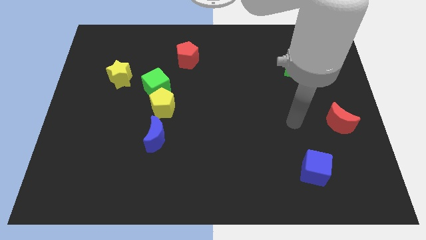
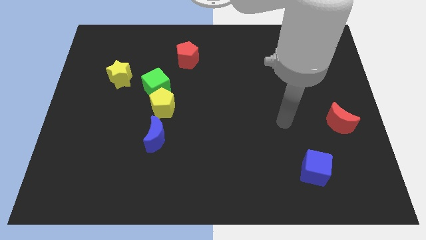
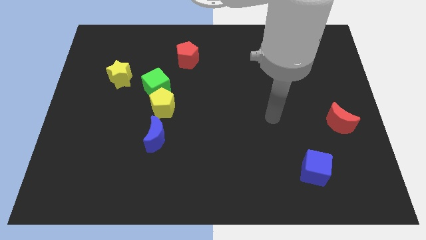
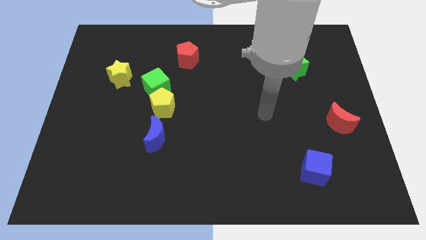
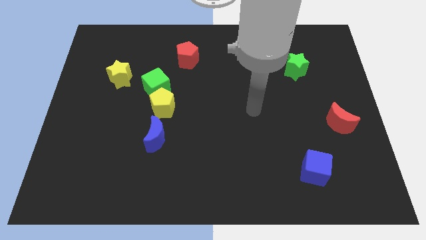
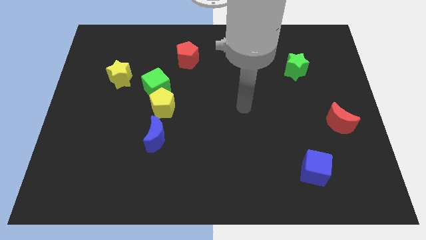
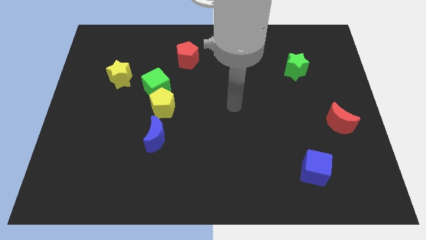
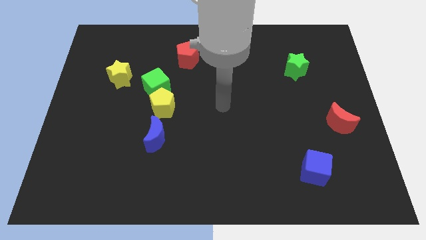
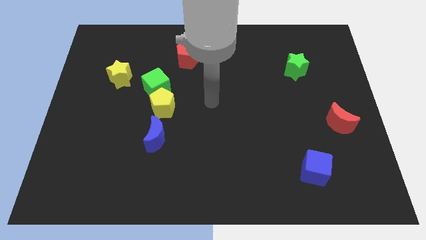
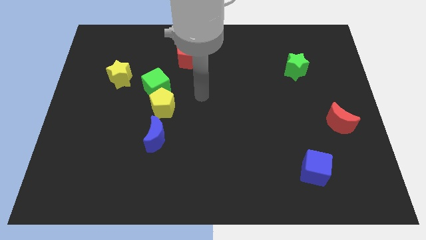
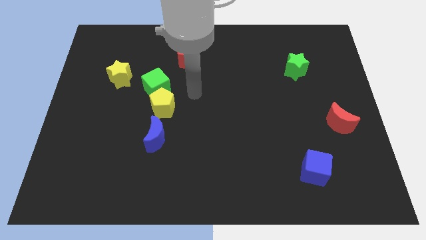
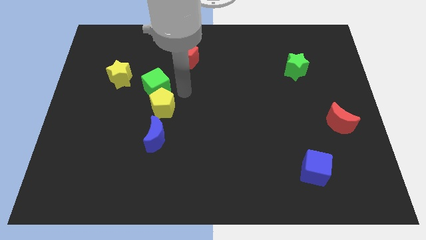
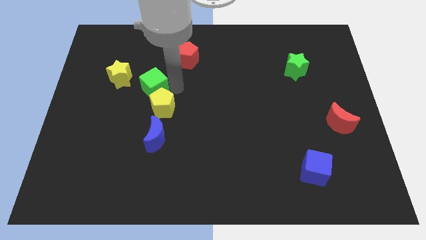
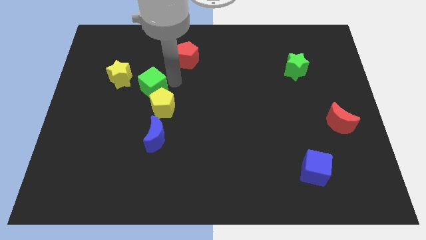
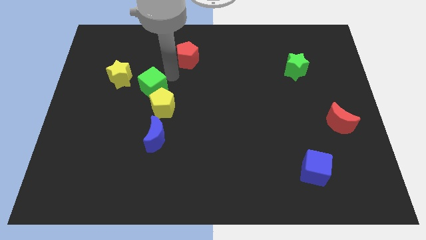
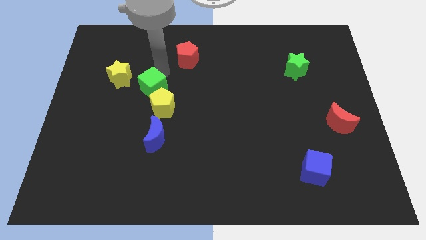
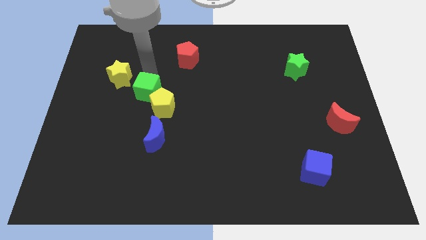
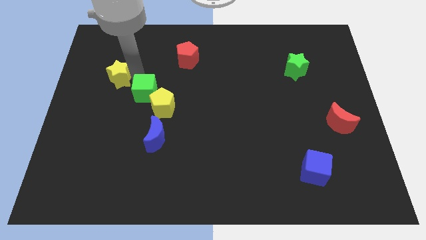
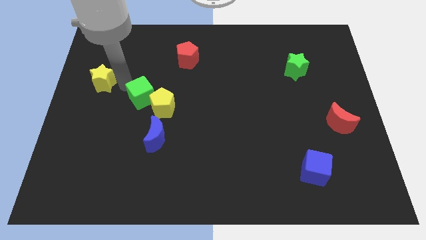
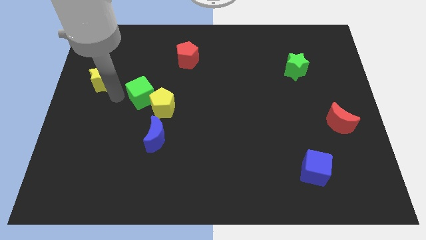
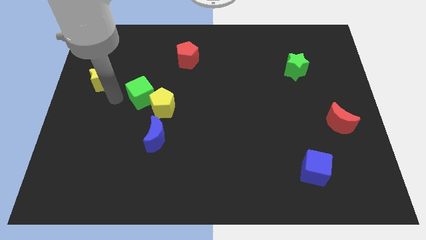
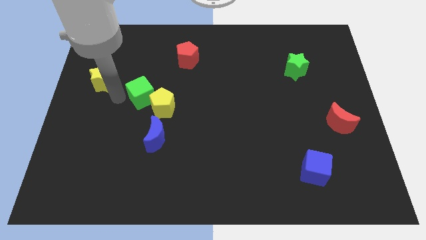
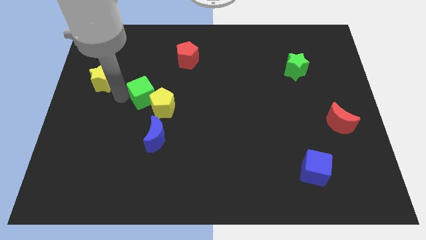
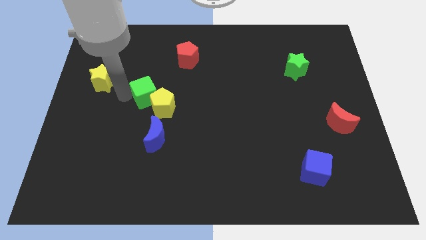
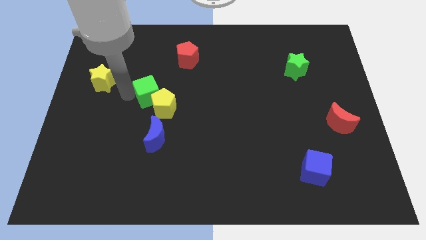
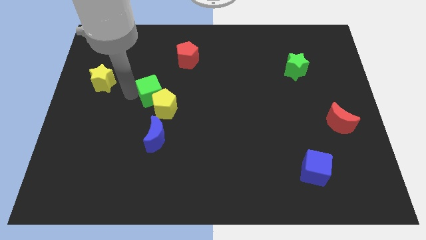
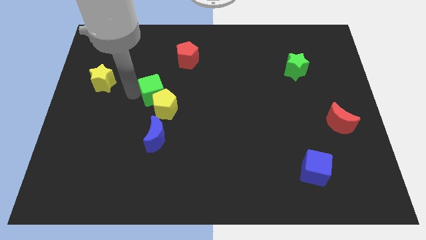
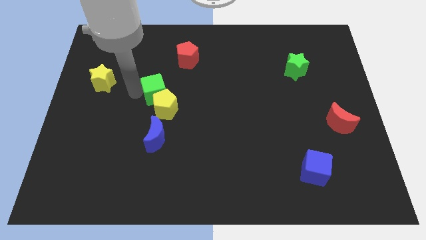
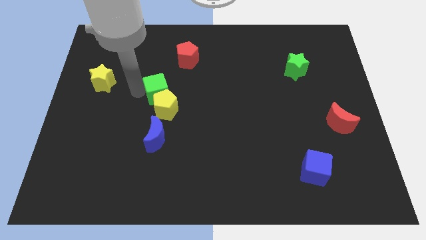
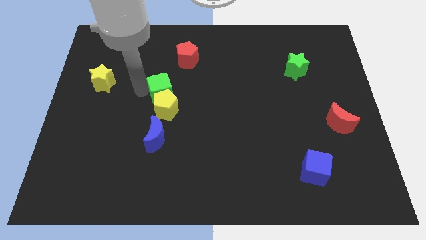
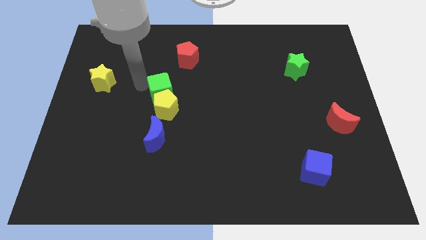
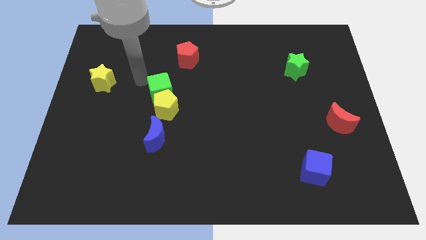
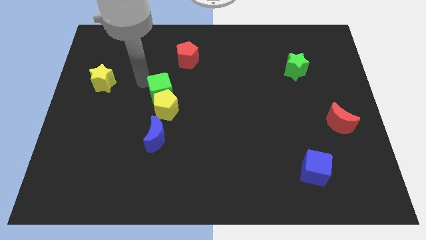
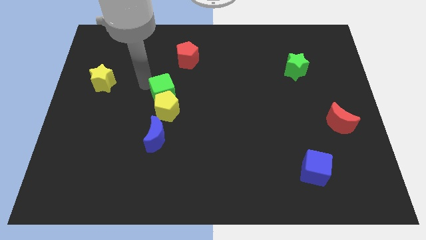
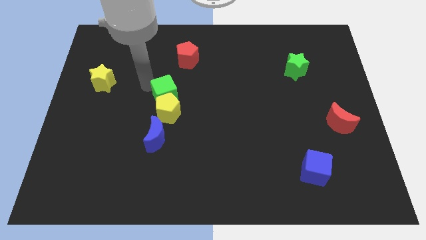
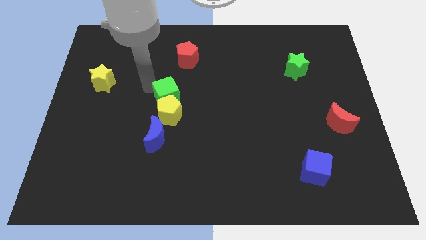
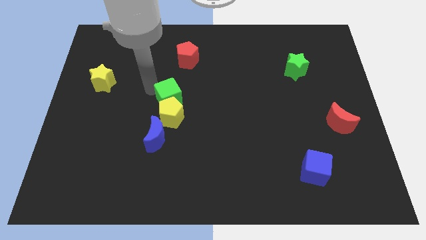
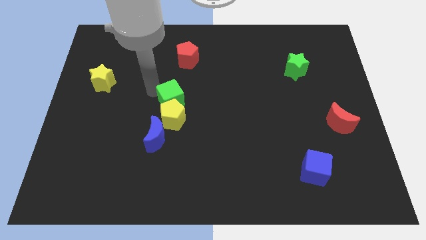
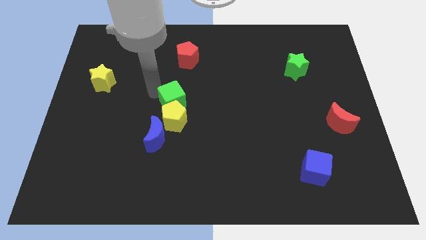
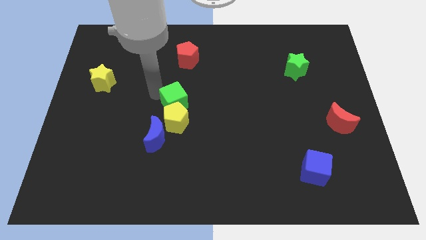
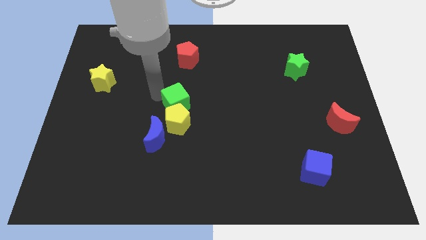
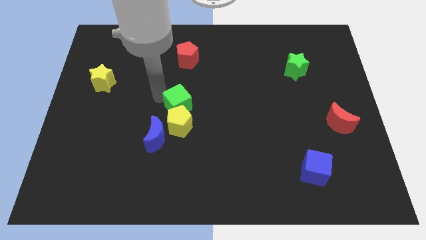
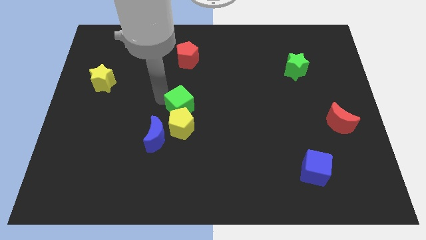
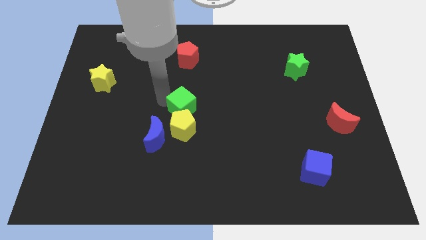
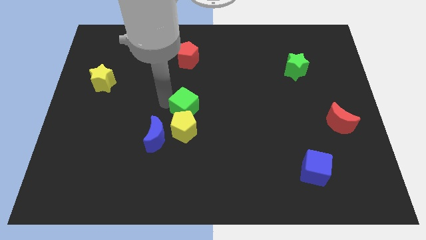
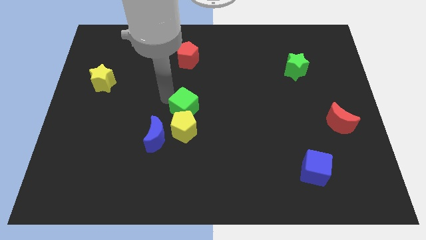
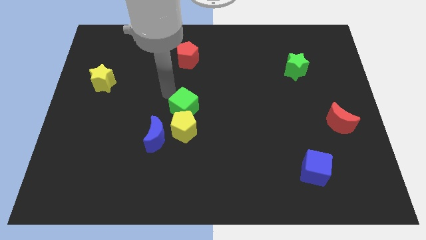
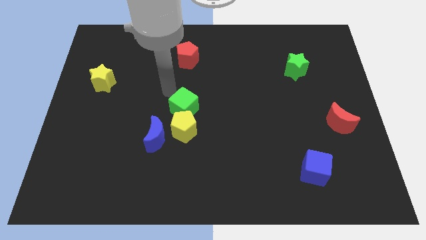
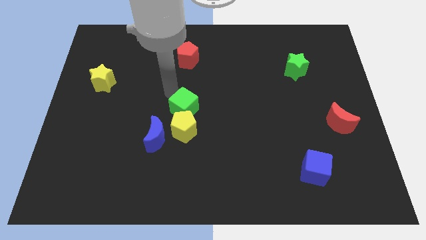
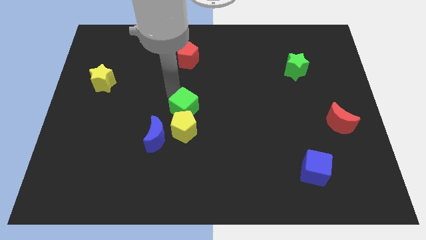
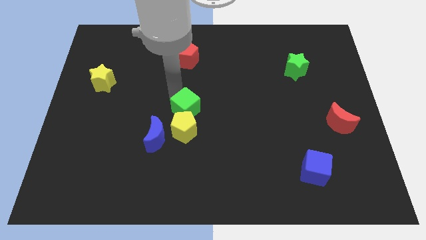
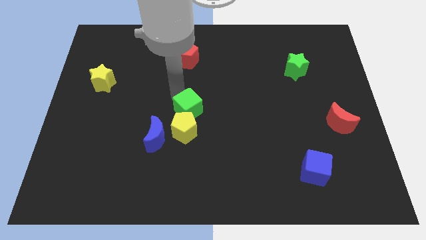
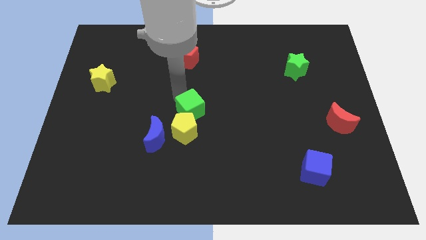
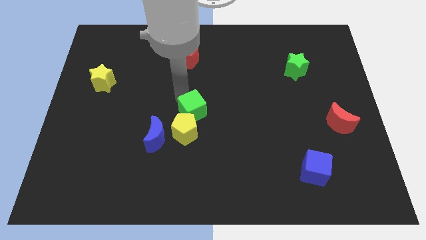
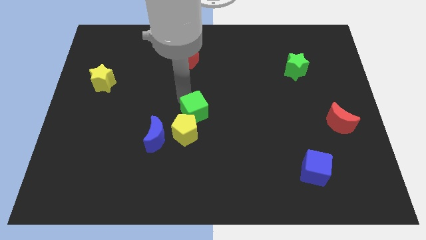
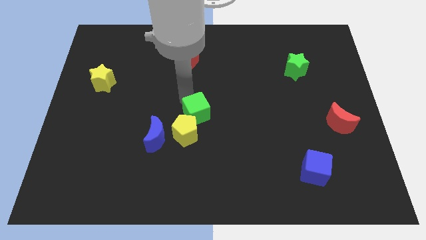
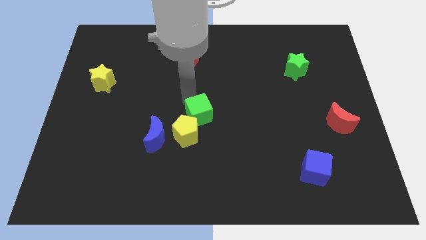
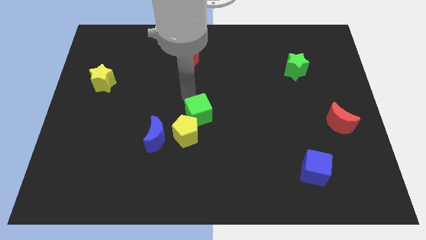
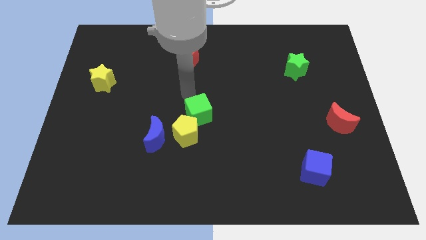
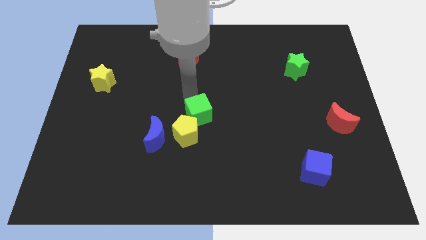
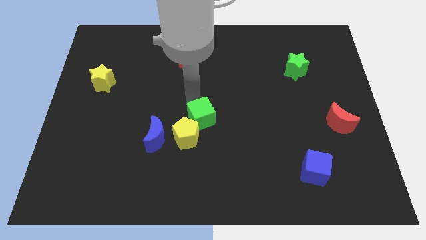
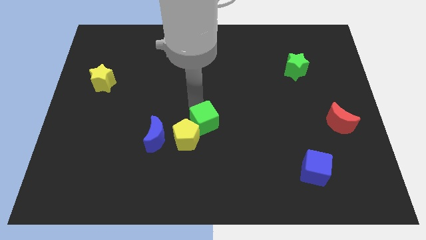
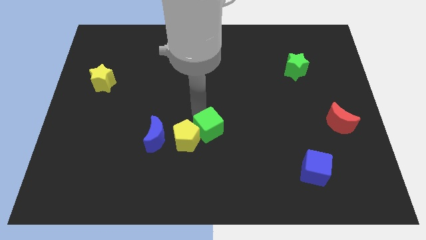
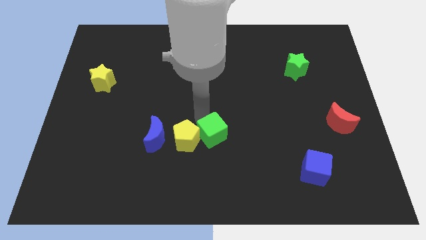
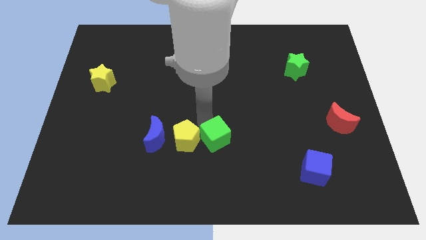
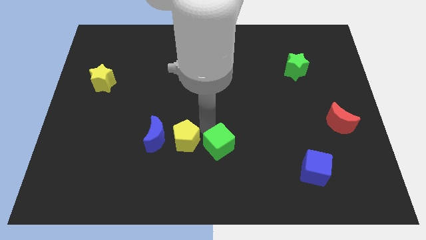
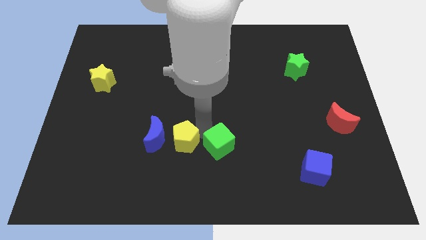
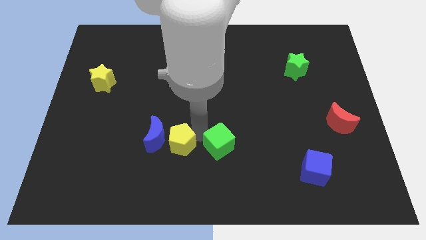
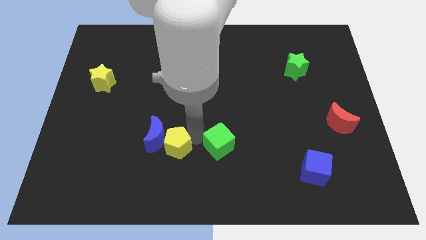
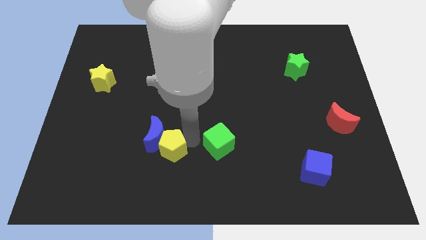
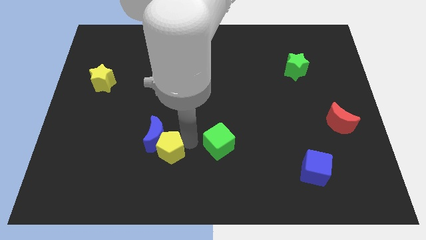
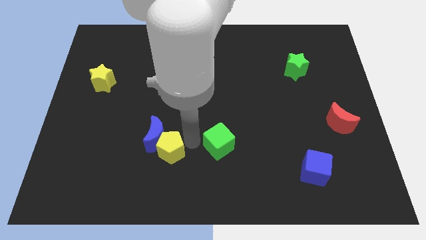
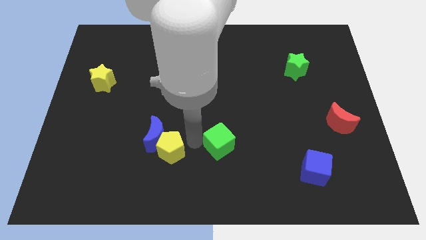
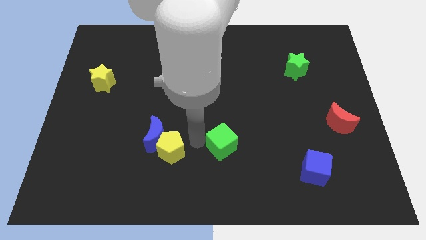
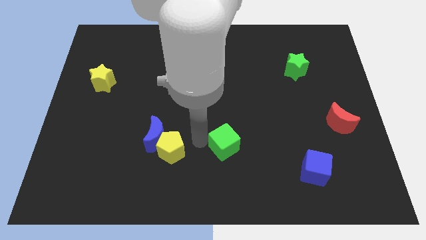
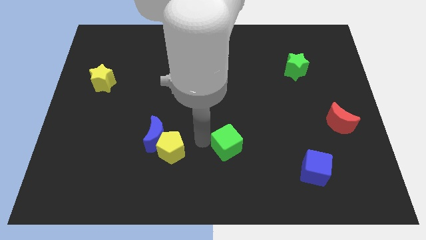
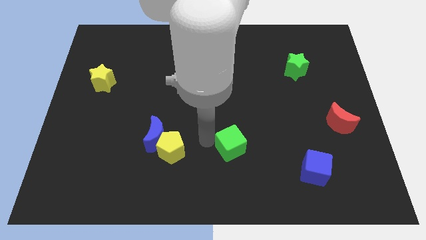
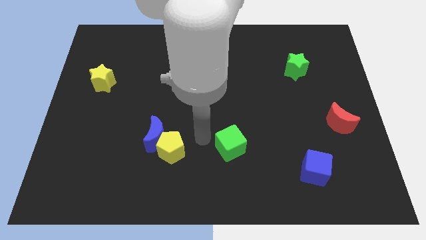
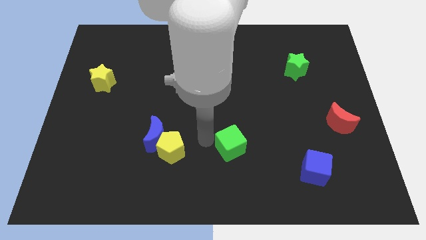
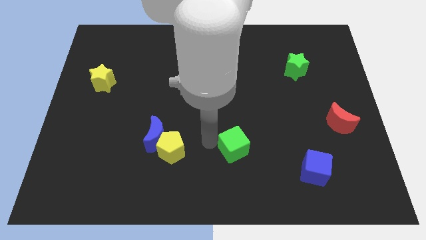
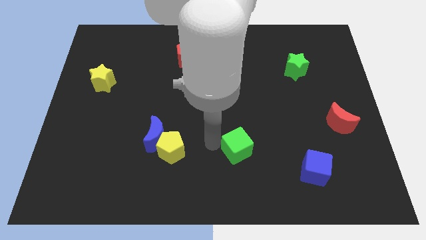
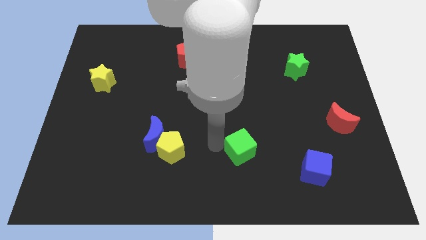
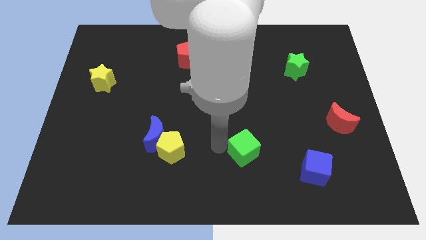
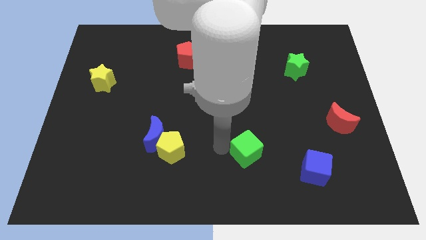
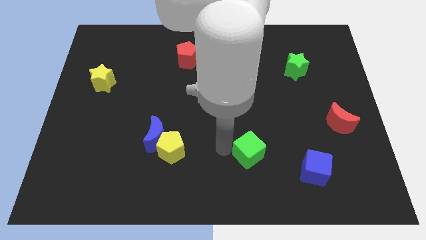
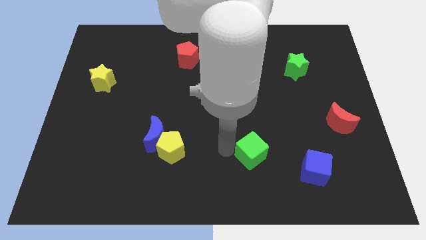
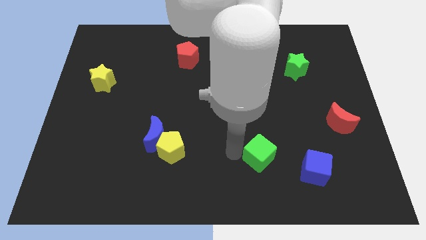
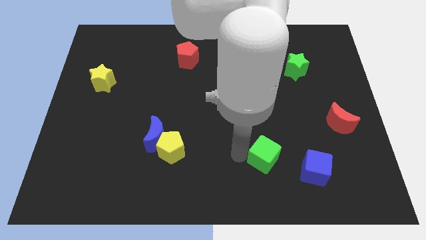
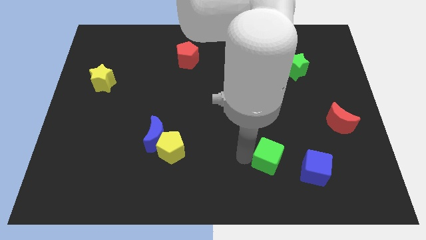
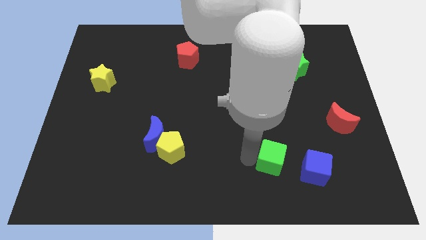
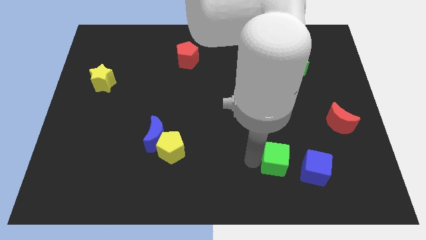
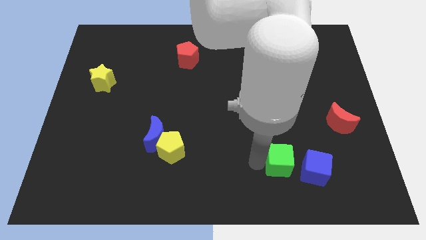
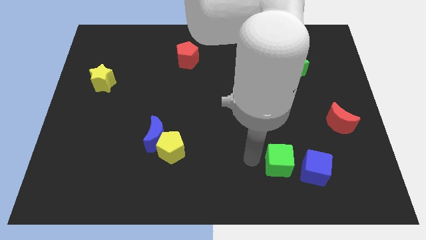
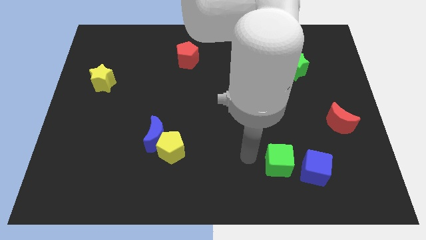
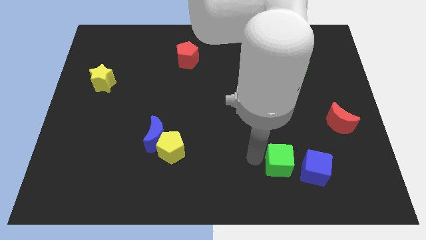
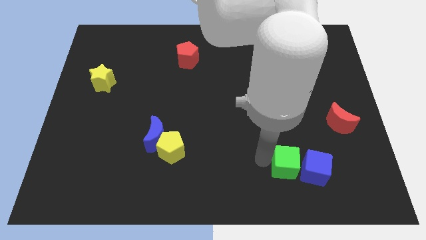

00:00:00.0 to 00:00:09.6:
move the green cube to the blue cube
